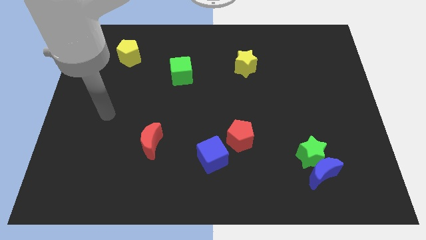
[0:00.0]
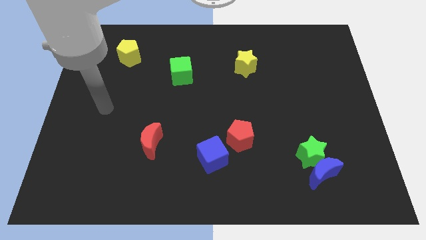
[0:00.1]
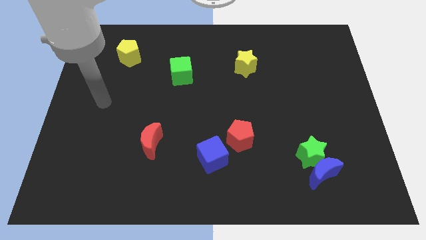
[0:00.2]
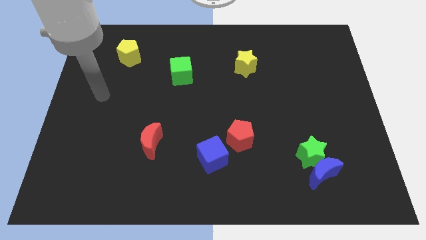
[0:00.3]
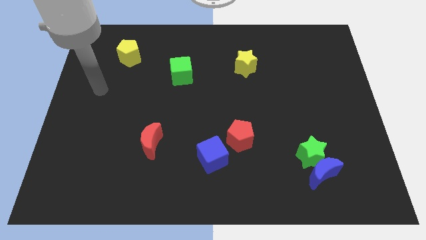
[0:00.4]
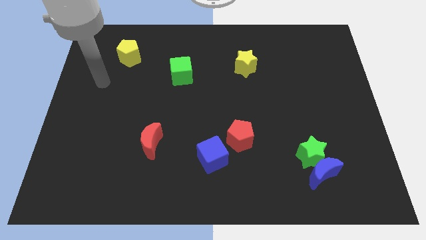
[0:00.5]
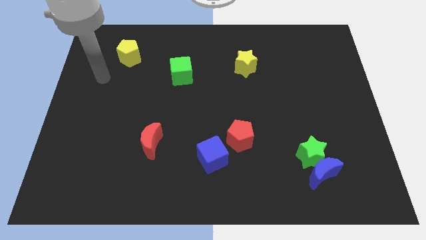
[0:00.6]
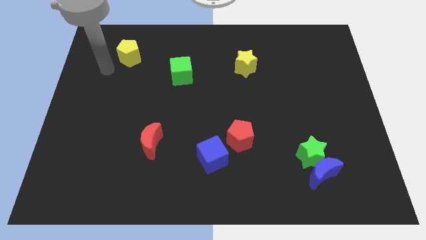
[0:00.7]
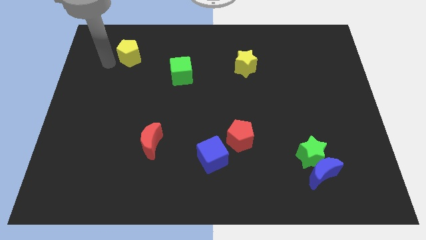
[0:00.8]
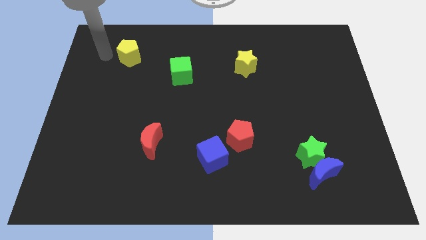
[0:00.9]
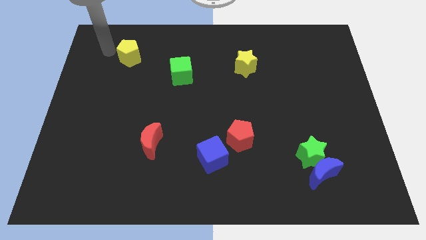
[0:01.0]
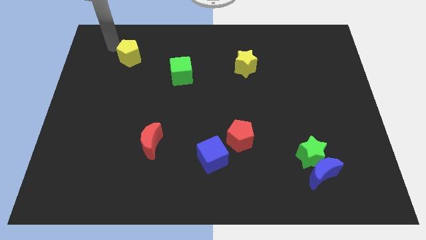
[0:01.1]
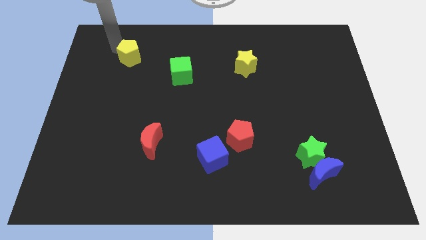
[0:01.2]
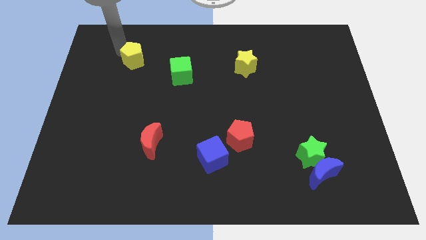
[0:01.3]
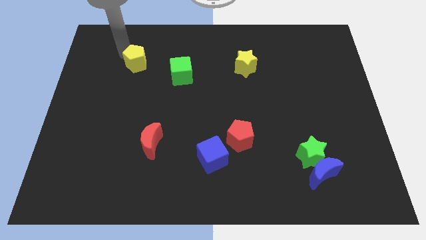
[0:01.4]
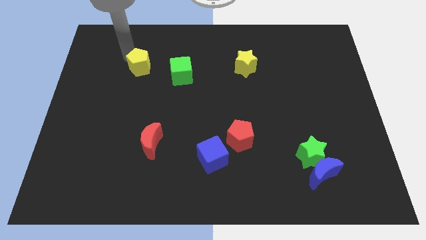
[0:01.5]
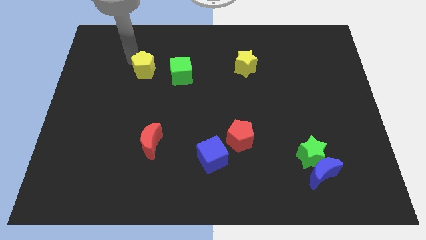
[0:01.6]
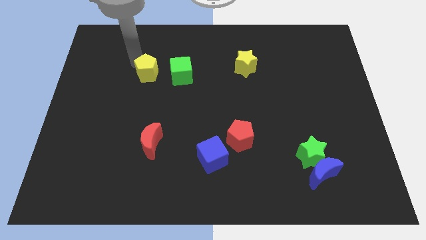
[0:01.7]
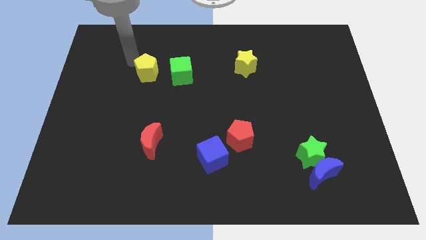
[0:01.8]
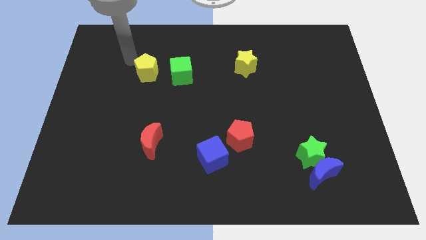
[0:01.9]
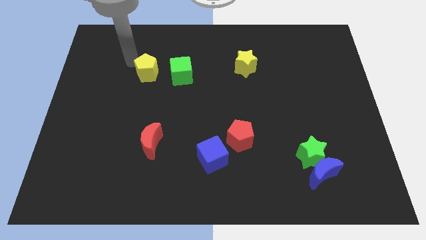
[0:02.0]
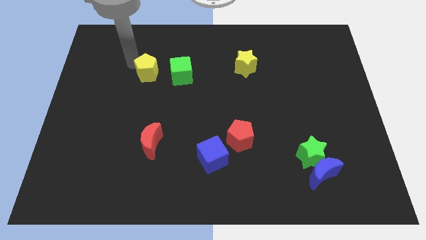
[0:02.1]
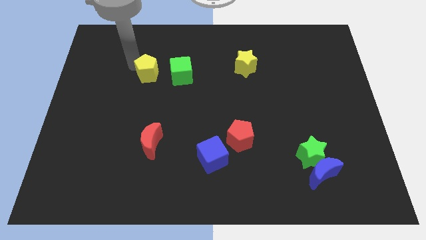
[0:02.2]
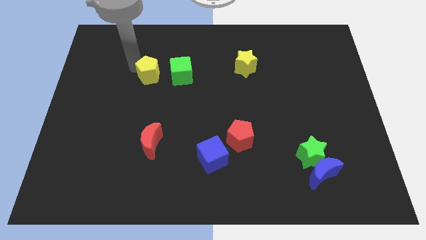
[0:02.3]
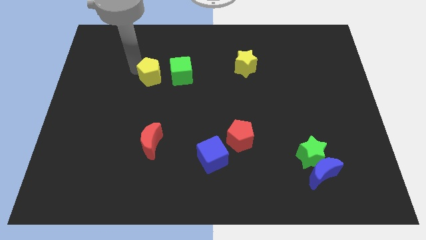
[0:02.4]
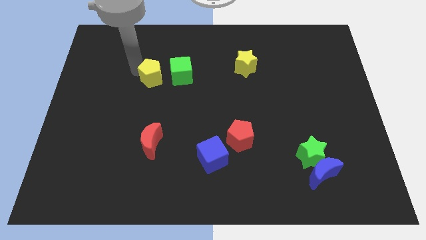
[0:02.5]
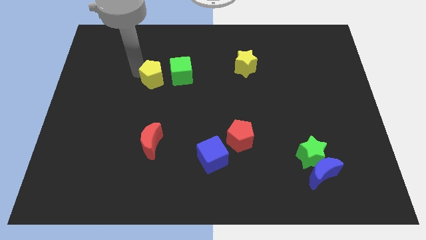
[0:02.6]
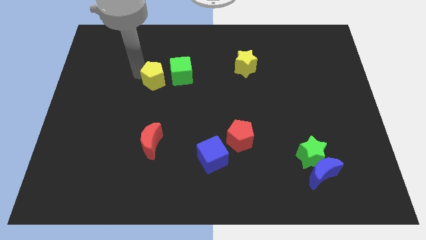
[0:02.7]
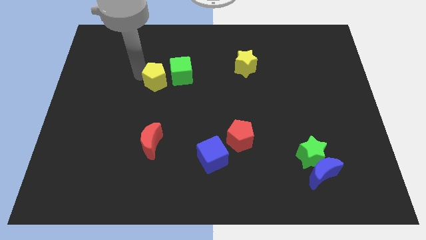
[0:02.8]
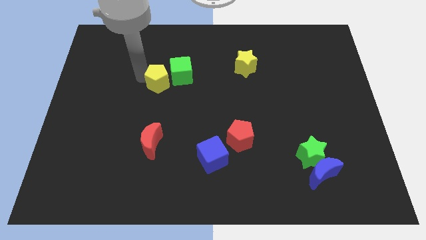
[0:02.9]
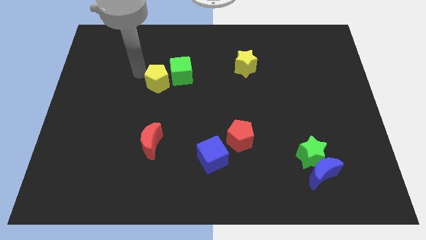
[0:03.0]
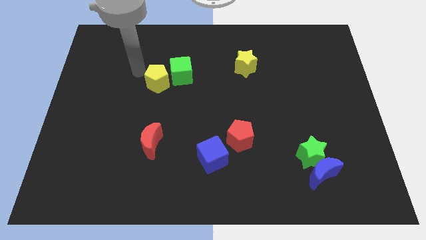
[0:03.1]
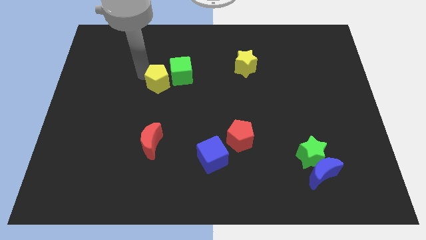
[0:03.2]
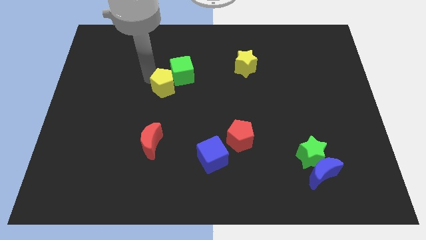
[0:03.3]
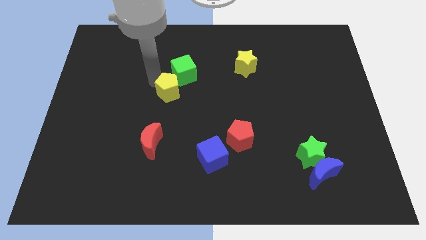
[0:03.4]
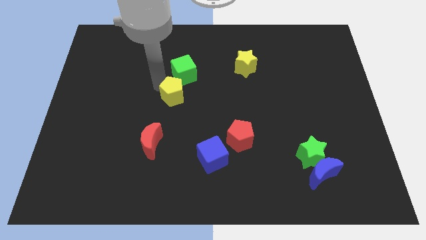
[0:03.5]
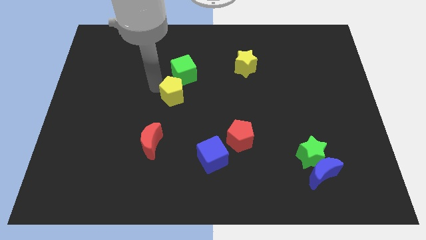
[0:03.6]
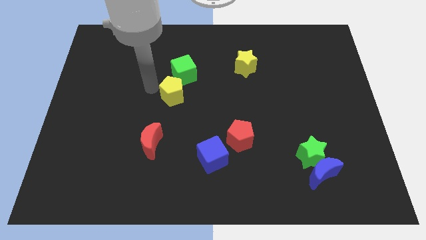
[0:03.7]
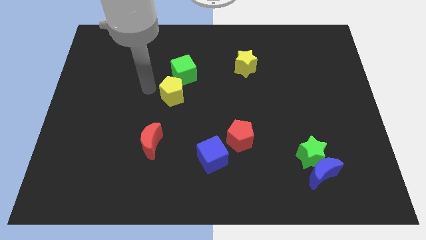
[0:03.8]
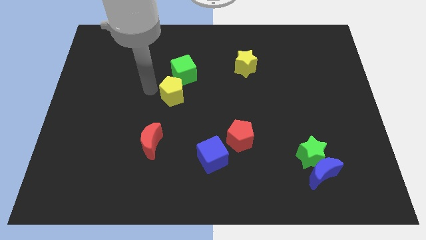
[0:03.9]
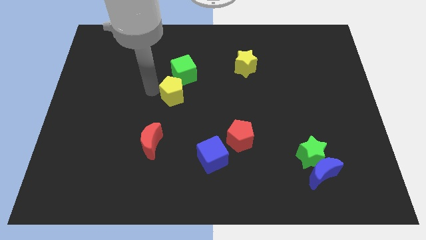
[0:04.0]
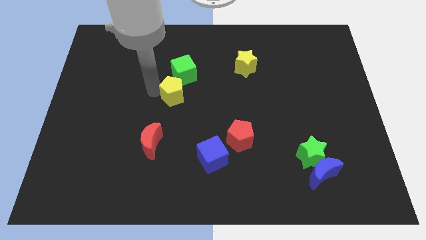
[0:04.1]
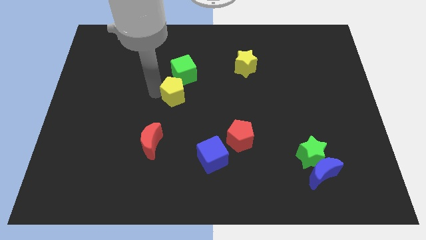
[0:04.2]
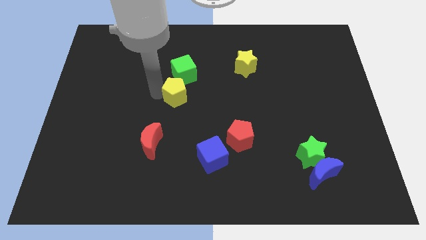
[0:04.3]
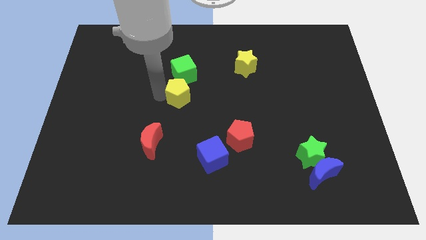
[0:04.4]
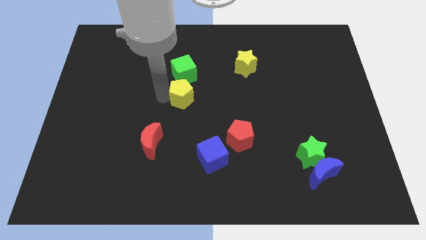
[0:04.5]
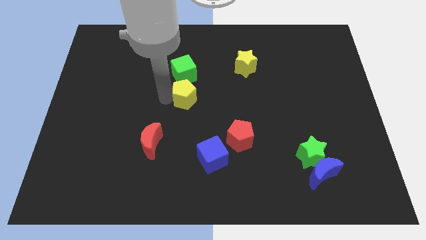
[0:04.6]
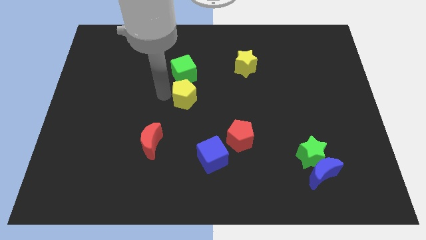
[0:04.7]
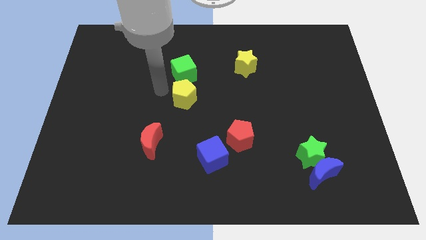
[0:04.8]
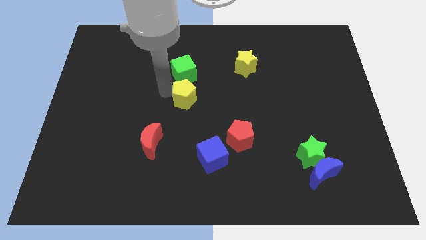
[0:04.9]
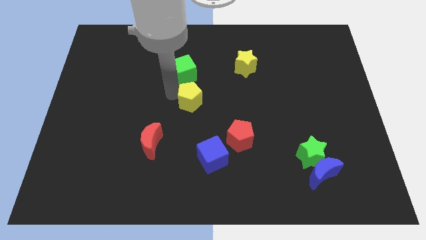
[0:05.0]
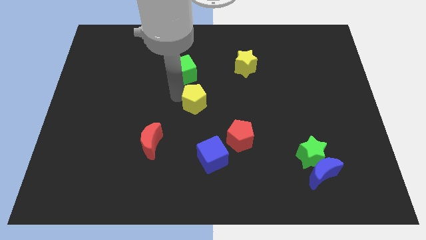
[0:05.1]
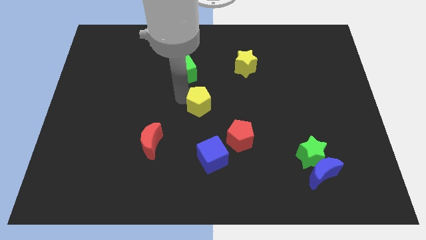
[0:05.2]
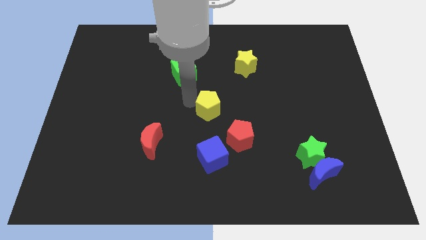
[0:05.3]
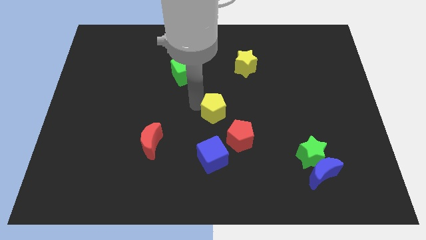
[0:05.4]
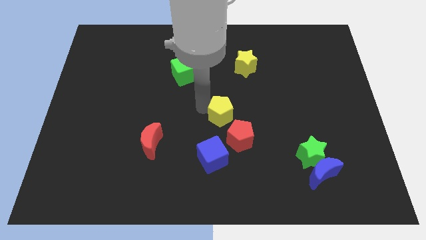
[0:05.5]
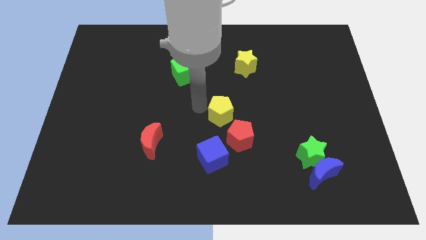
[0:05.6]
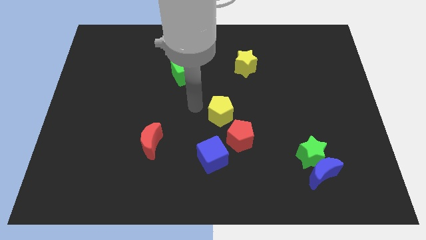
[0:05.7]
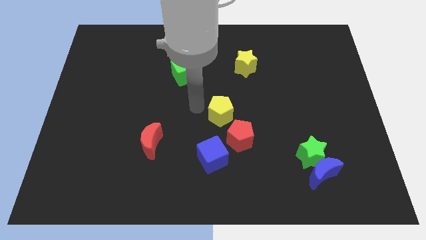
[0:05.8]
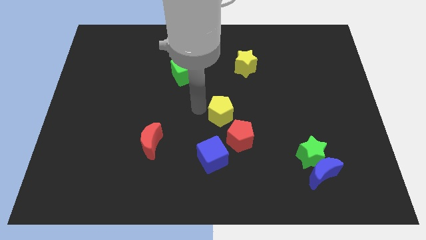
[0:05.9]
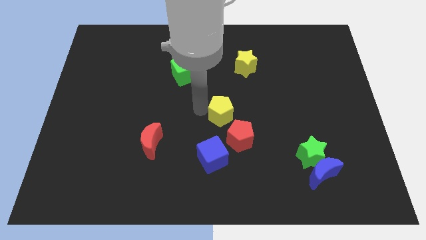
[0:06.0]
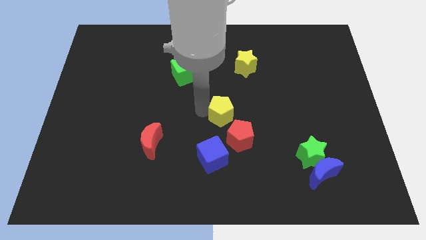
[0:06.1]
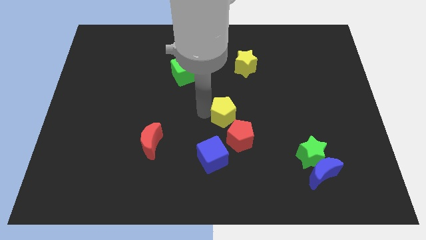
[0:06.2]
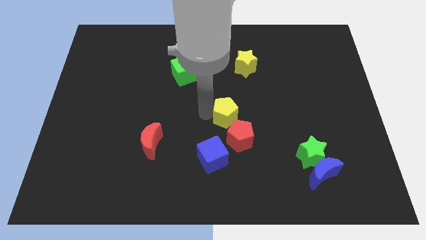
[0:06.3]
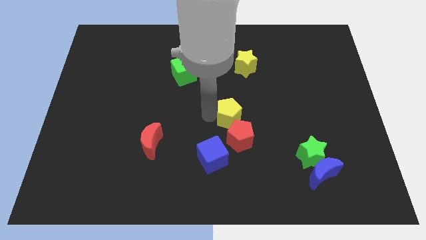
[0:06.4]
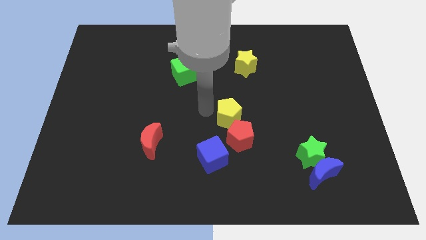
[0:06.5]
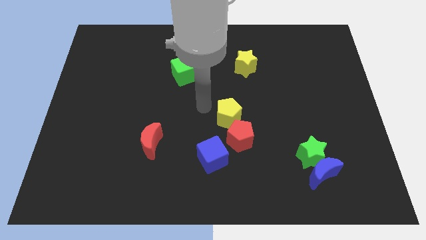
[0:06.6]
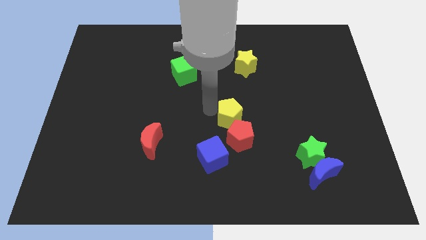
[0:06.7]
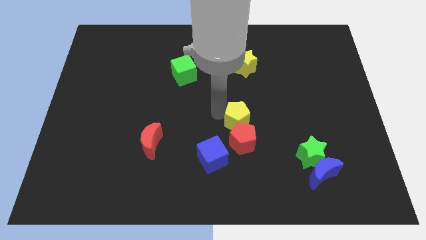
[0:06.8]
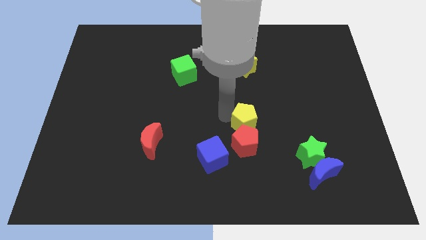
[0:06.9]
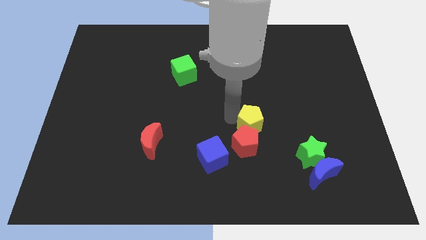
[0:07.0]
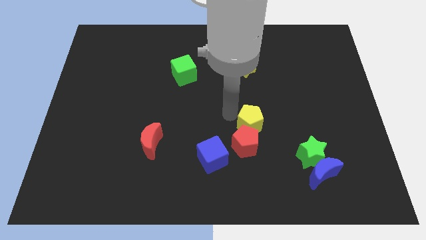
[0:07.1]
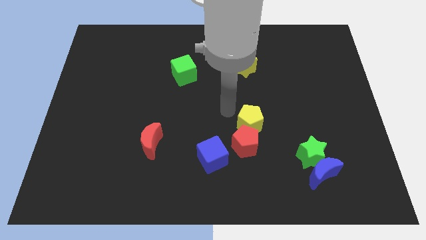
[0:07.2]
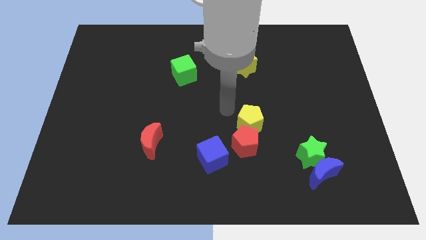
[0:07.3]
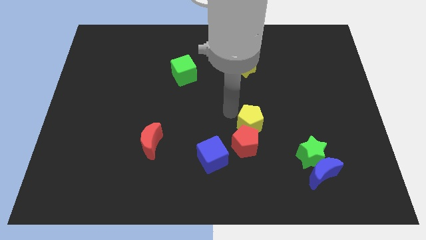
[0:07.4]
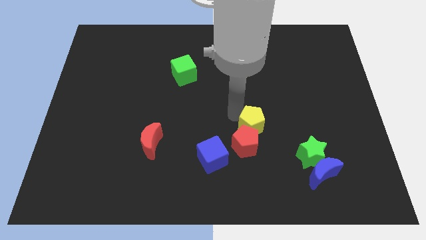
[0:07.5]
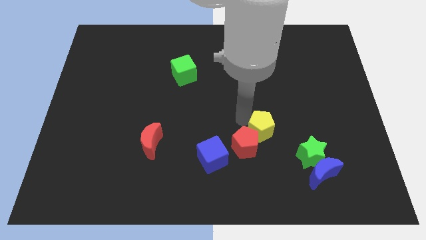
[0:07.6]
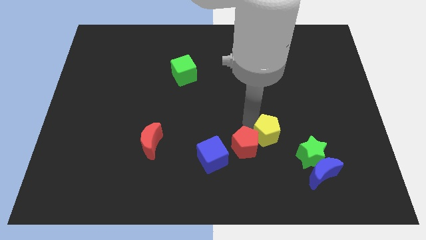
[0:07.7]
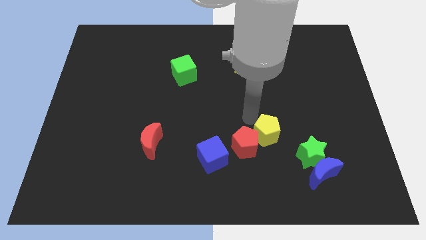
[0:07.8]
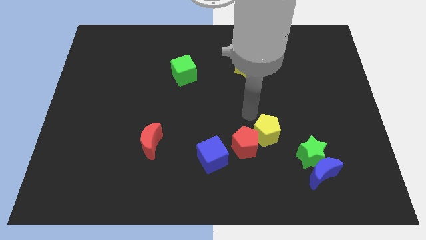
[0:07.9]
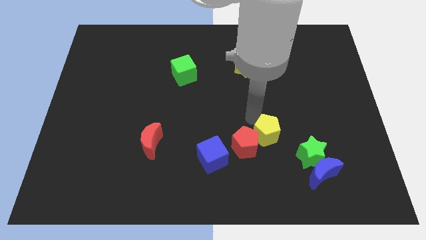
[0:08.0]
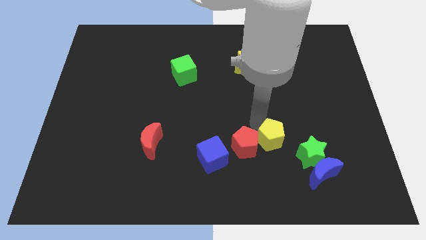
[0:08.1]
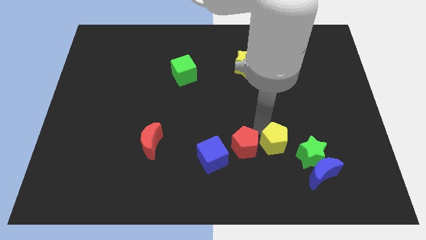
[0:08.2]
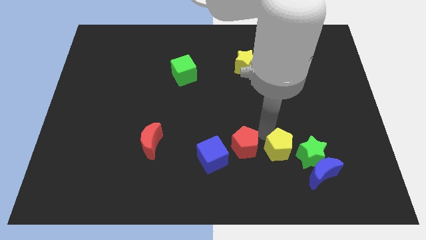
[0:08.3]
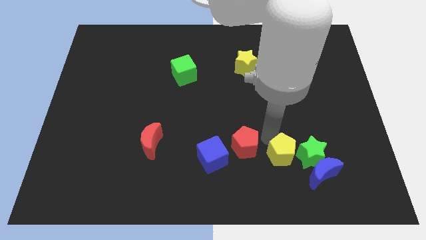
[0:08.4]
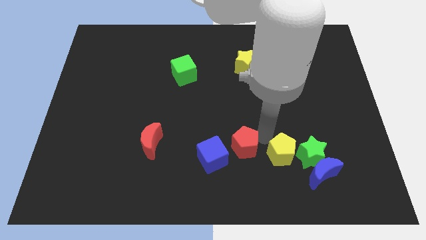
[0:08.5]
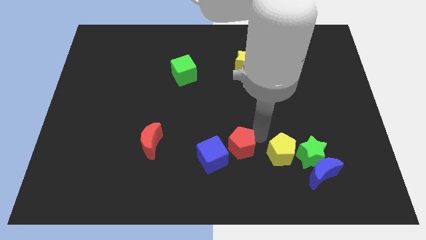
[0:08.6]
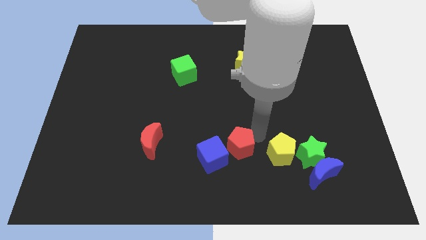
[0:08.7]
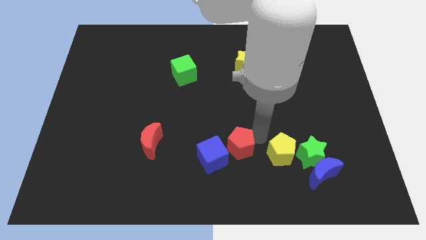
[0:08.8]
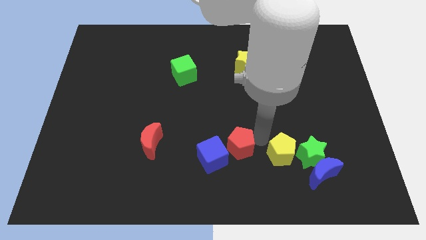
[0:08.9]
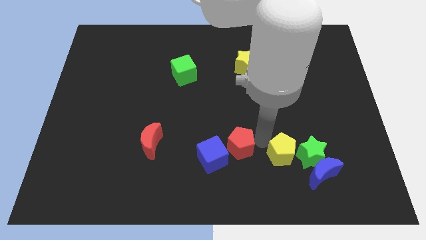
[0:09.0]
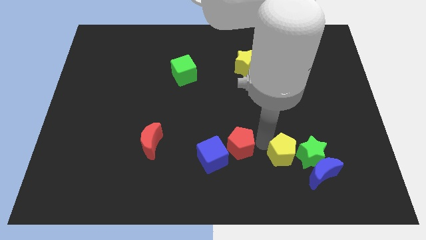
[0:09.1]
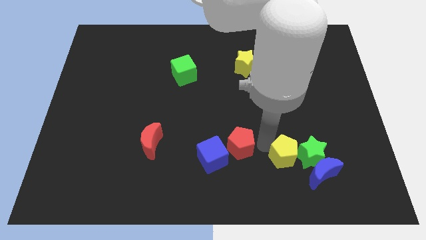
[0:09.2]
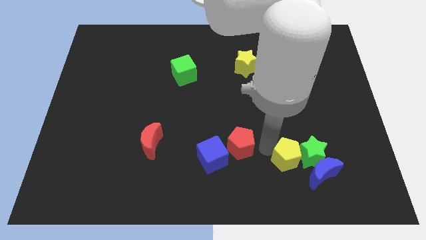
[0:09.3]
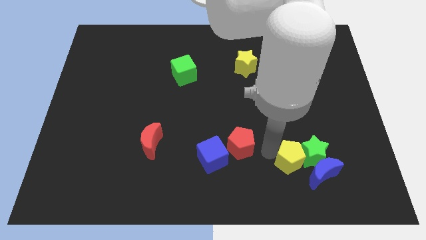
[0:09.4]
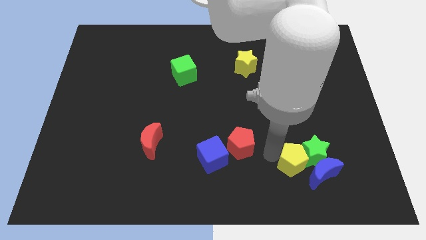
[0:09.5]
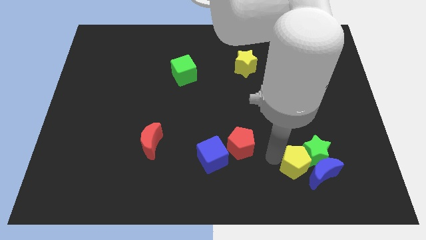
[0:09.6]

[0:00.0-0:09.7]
put the yellow pentagon close to the blue moon
